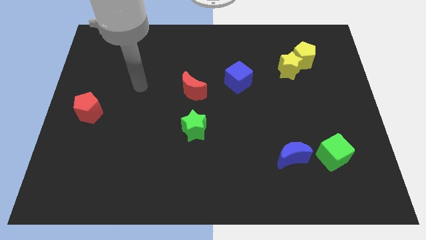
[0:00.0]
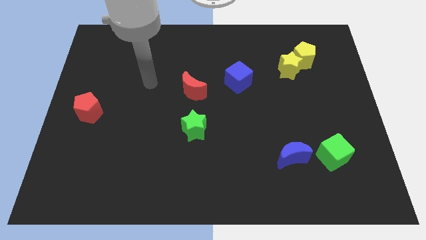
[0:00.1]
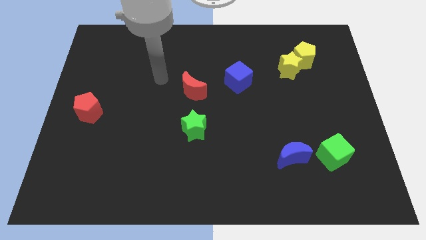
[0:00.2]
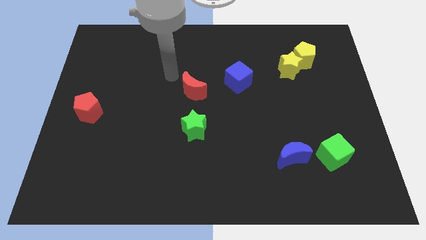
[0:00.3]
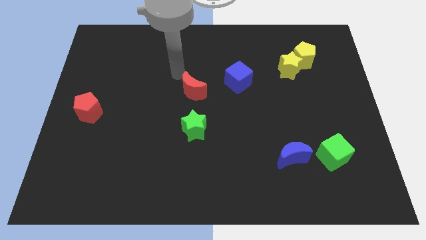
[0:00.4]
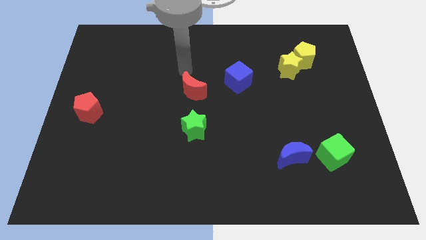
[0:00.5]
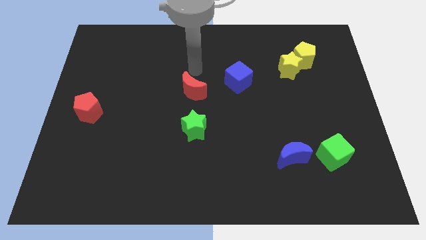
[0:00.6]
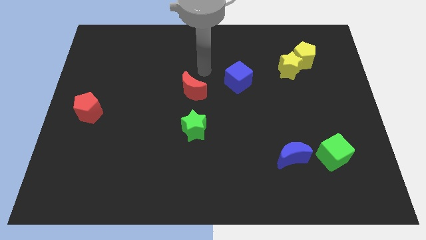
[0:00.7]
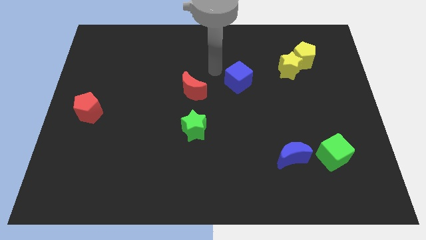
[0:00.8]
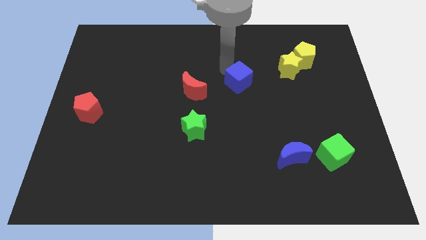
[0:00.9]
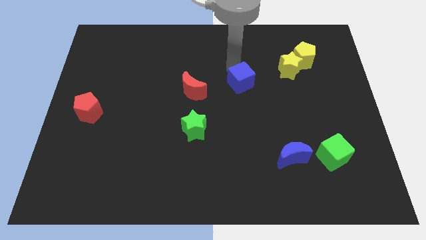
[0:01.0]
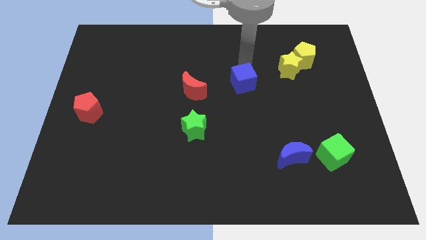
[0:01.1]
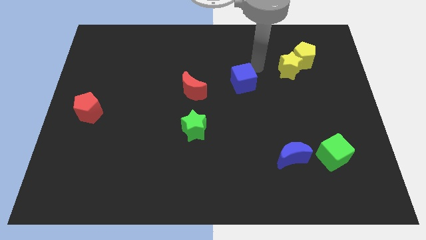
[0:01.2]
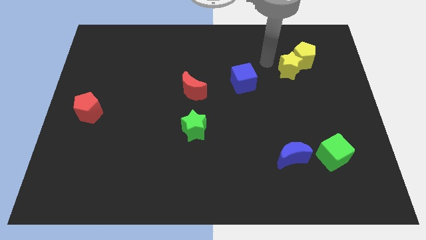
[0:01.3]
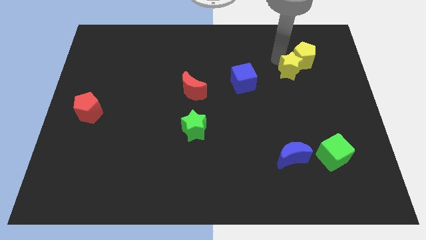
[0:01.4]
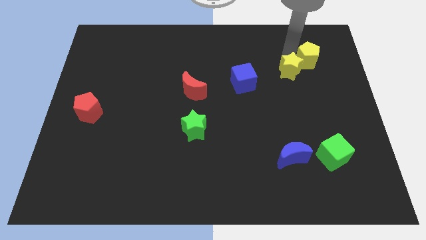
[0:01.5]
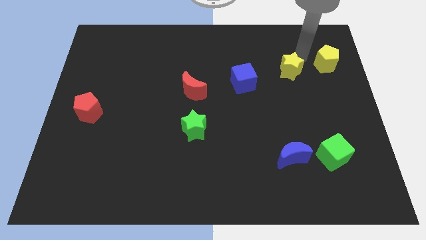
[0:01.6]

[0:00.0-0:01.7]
separate the yellow star from the yellow pentagon

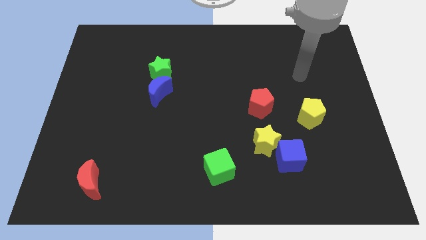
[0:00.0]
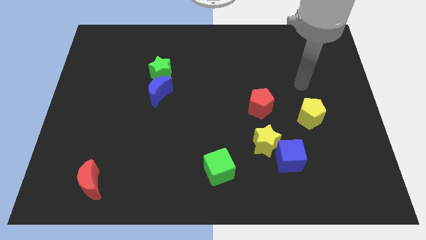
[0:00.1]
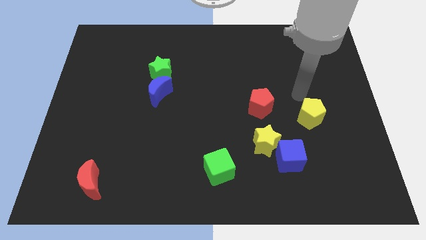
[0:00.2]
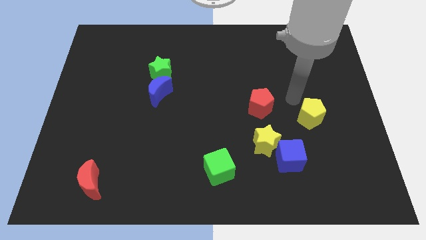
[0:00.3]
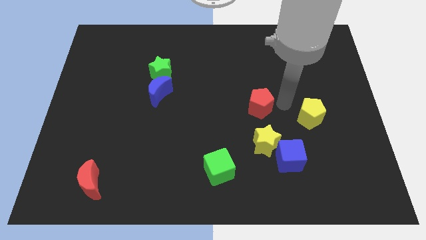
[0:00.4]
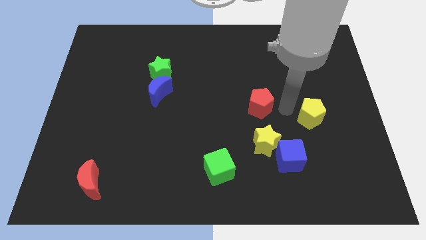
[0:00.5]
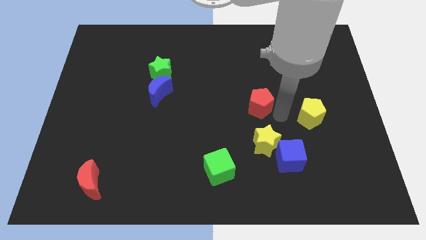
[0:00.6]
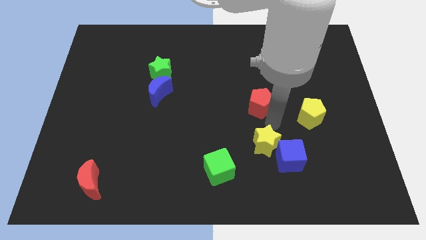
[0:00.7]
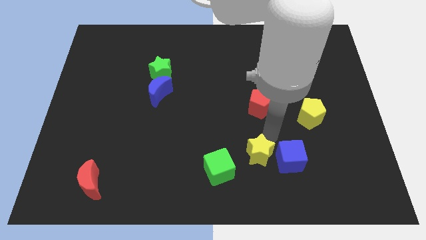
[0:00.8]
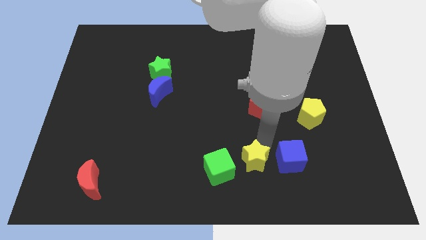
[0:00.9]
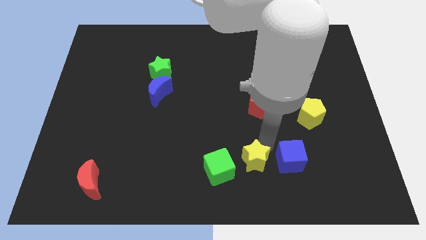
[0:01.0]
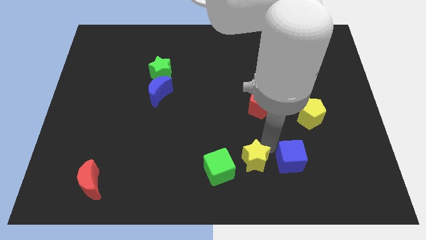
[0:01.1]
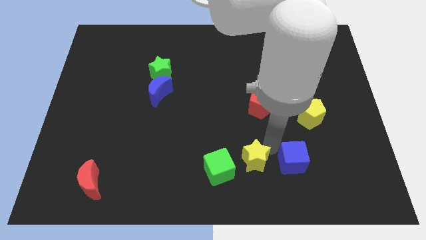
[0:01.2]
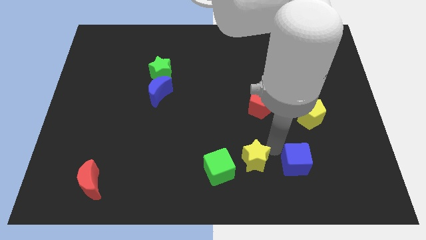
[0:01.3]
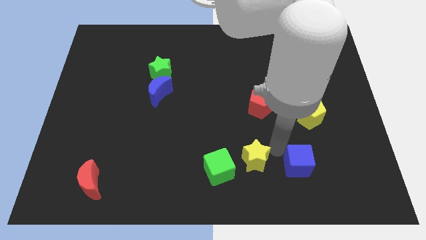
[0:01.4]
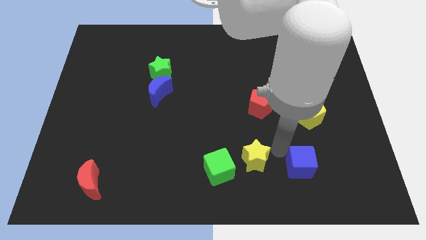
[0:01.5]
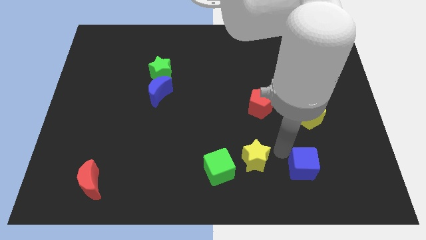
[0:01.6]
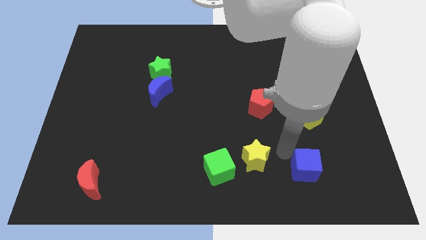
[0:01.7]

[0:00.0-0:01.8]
pull the blue cube apart from the yellow star

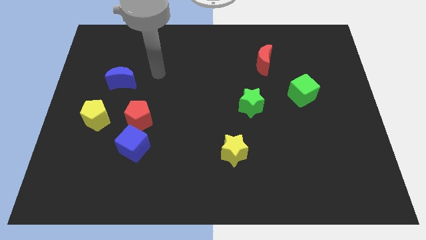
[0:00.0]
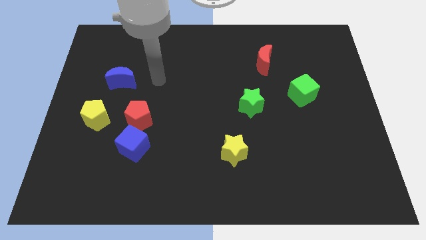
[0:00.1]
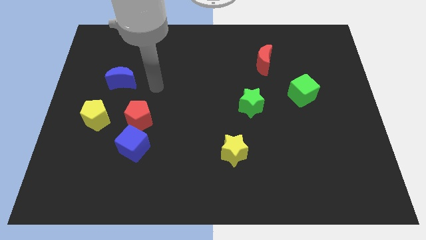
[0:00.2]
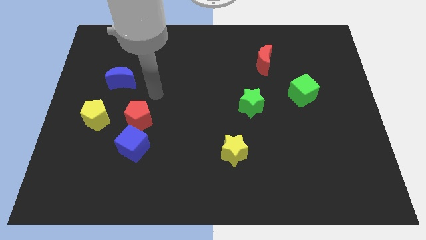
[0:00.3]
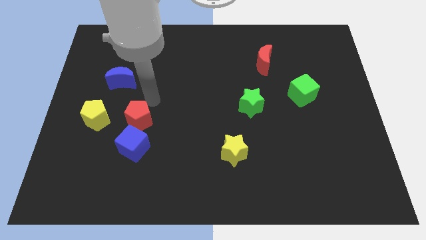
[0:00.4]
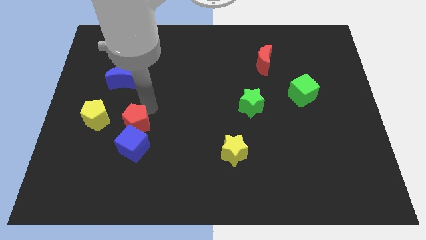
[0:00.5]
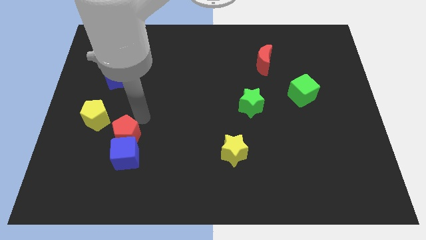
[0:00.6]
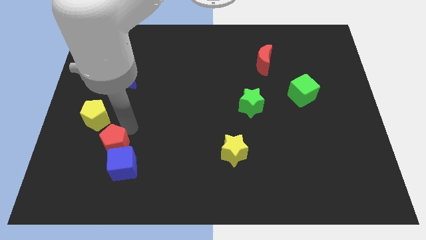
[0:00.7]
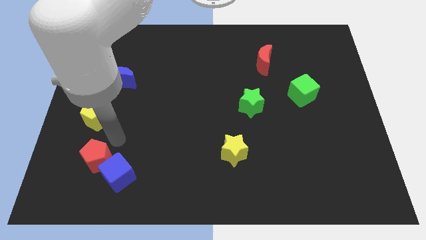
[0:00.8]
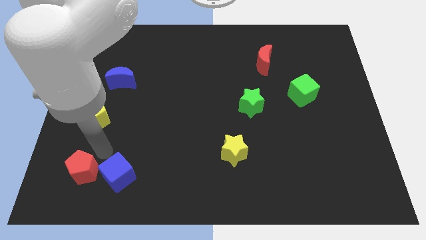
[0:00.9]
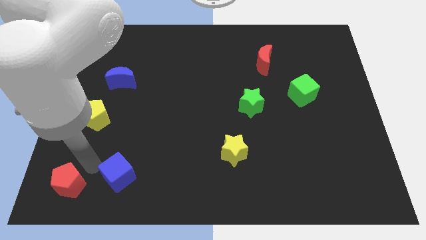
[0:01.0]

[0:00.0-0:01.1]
separate the blue cube from the red pentagon

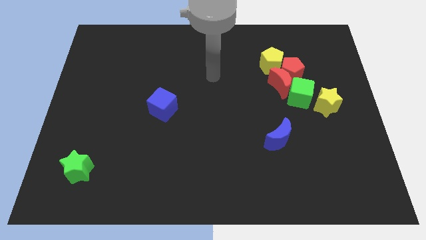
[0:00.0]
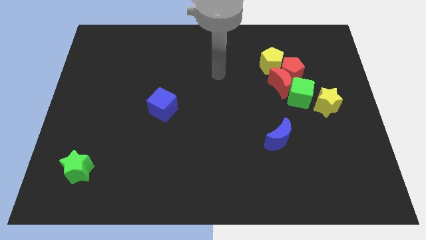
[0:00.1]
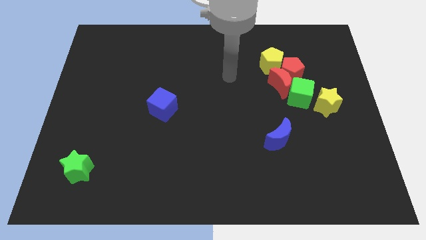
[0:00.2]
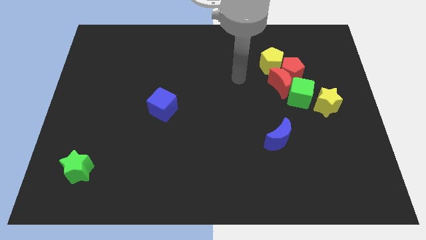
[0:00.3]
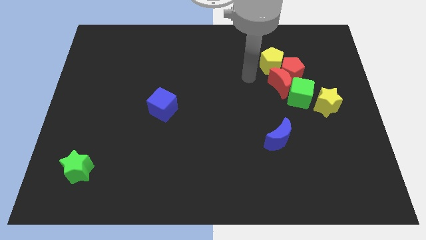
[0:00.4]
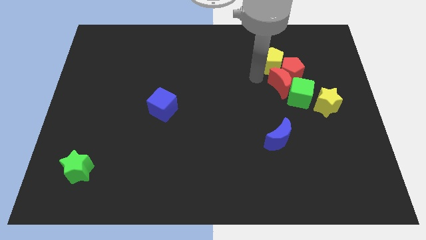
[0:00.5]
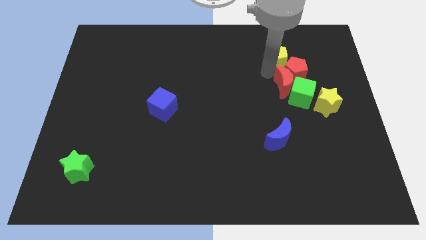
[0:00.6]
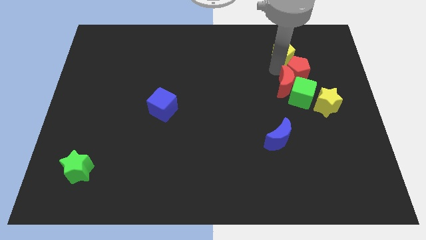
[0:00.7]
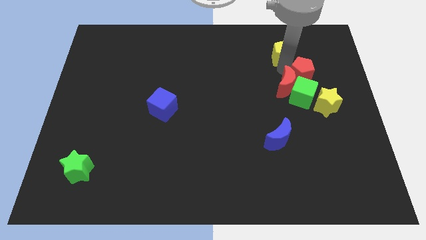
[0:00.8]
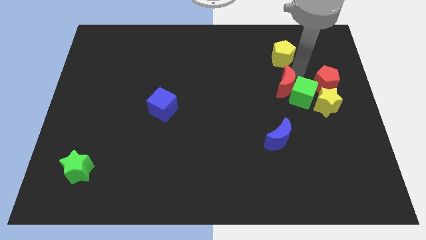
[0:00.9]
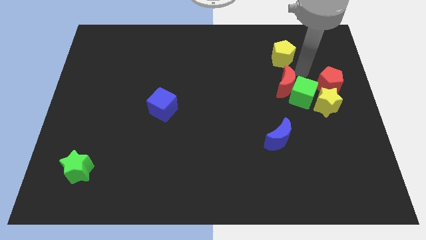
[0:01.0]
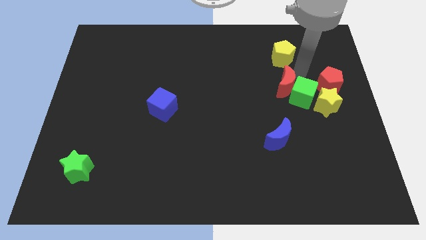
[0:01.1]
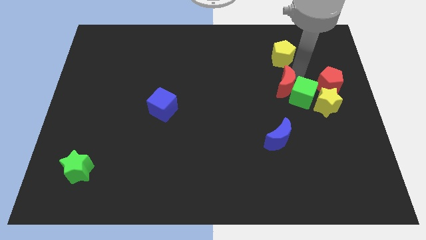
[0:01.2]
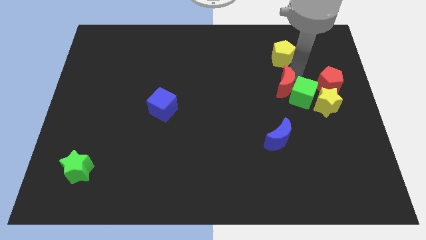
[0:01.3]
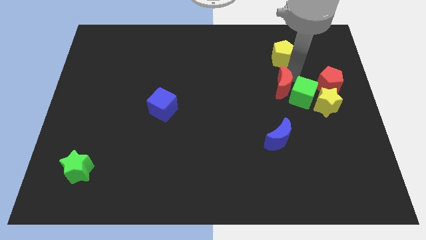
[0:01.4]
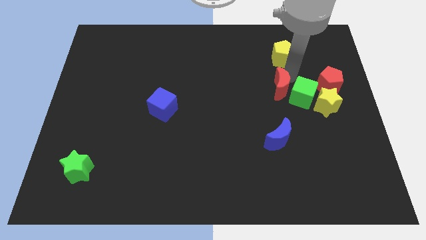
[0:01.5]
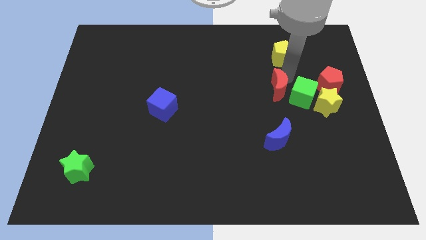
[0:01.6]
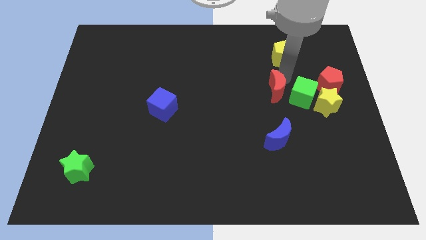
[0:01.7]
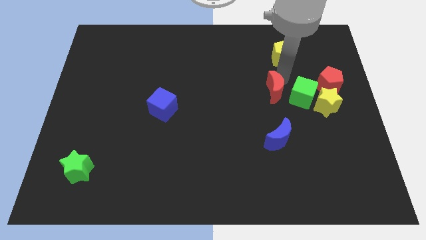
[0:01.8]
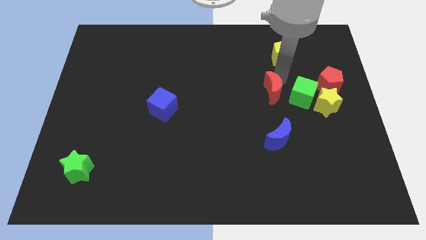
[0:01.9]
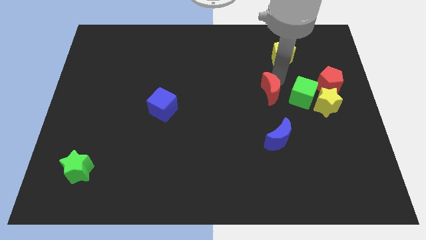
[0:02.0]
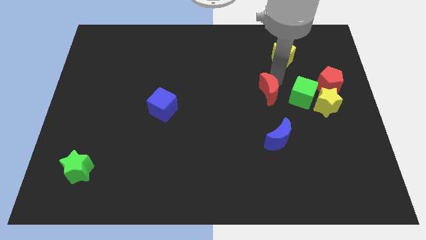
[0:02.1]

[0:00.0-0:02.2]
pull the red moon apart from the red pentagon, green cube, and yellow pentagon

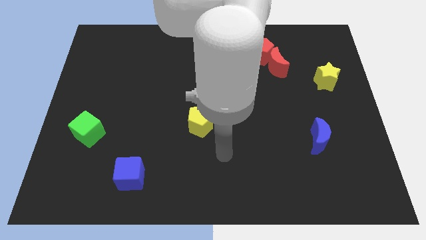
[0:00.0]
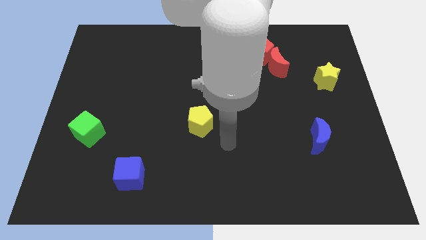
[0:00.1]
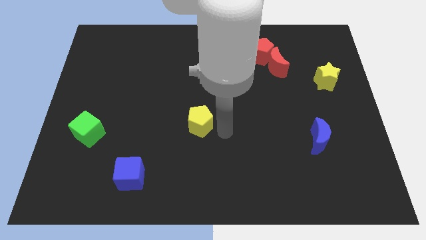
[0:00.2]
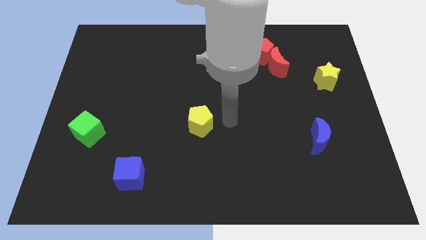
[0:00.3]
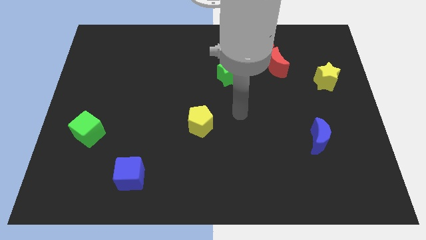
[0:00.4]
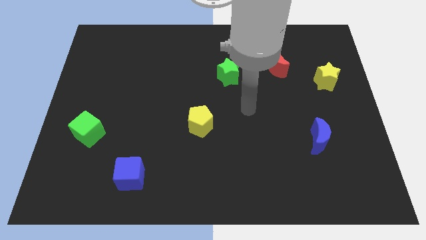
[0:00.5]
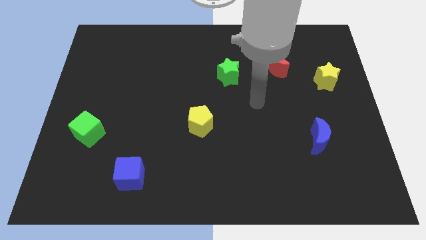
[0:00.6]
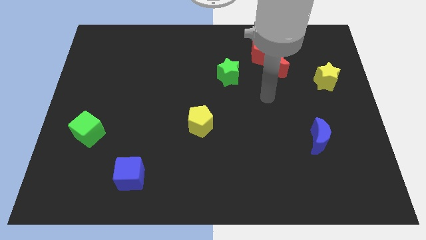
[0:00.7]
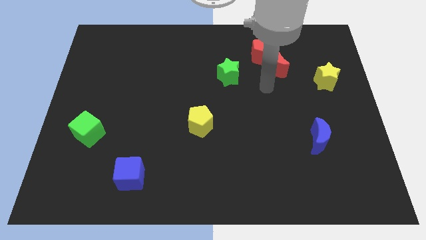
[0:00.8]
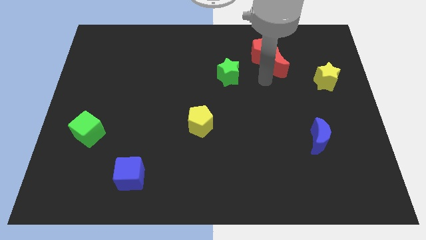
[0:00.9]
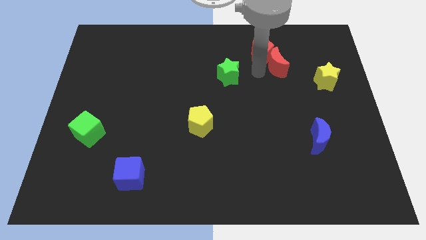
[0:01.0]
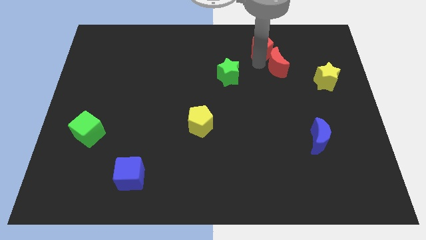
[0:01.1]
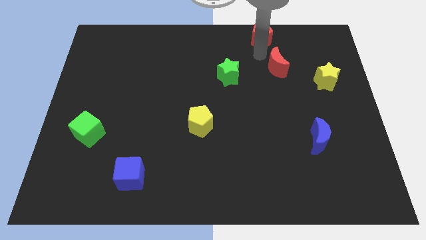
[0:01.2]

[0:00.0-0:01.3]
separate the red moon from the red pentagon

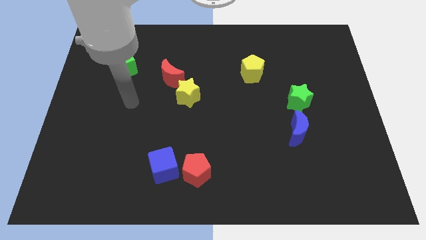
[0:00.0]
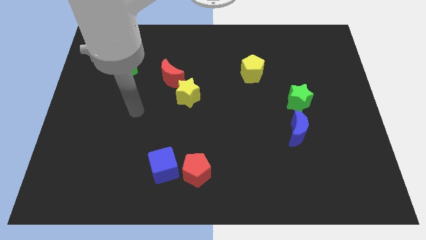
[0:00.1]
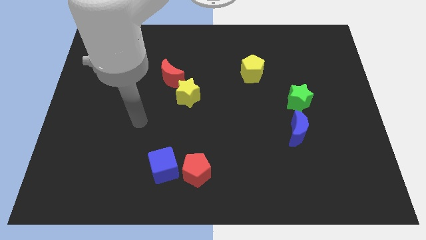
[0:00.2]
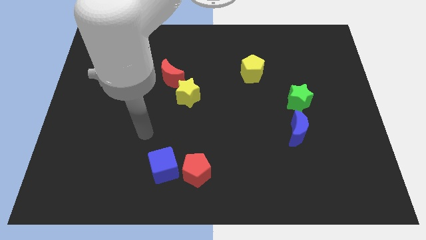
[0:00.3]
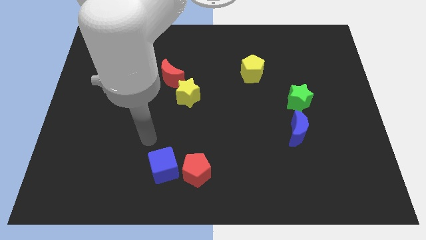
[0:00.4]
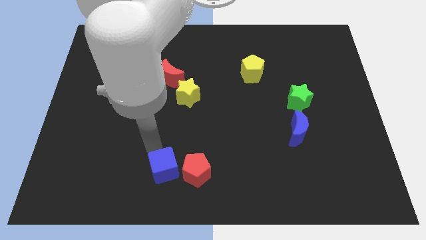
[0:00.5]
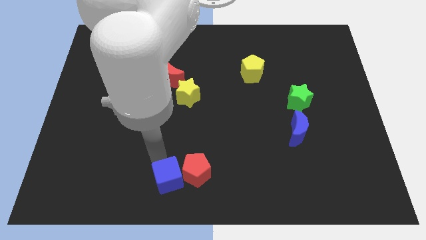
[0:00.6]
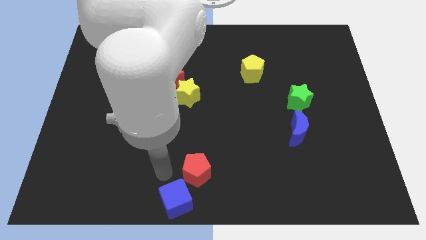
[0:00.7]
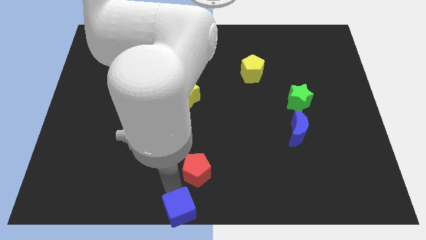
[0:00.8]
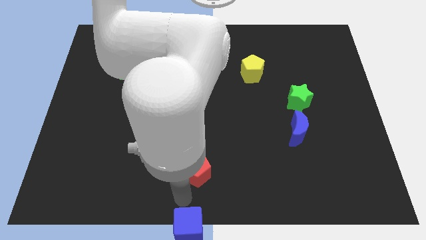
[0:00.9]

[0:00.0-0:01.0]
move the red pentagon away from the blue cube

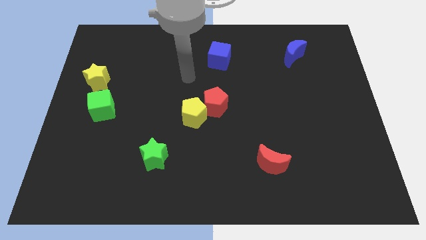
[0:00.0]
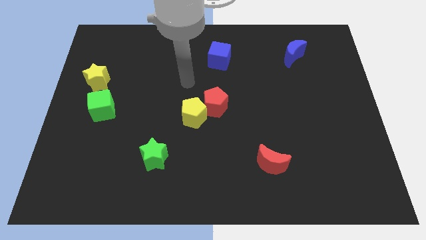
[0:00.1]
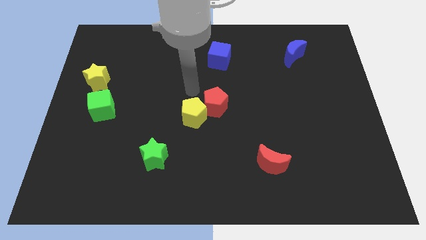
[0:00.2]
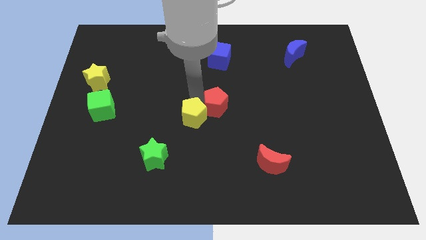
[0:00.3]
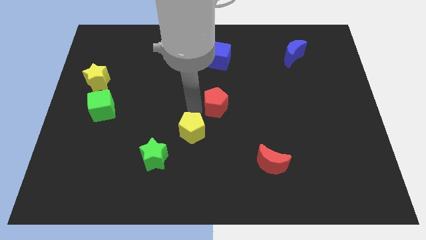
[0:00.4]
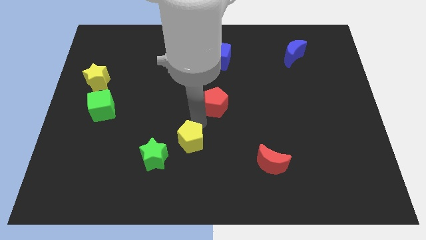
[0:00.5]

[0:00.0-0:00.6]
move the red pentagon away from the yellow pentagon
